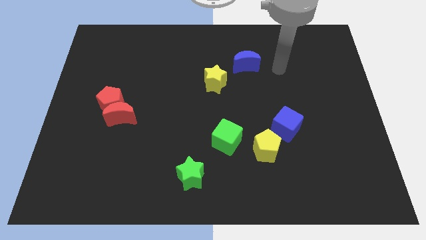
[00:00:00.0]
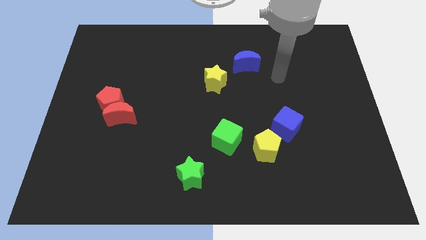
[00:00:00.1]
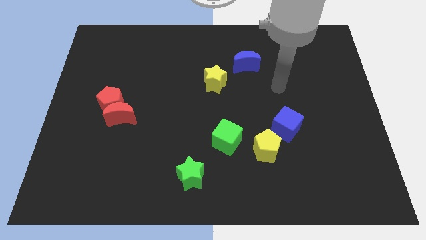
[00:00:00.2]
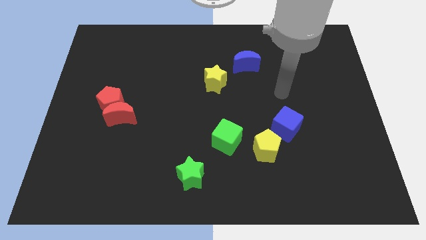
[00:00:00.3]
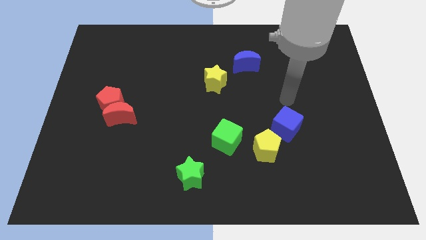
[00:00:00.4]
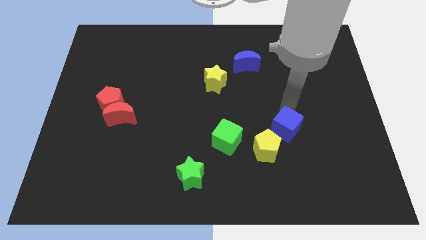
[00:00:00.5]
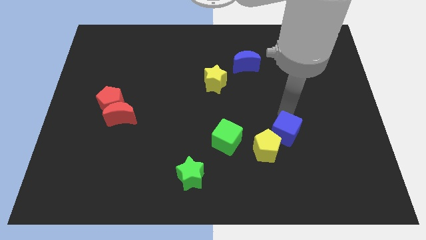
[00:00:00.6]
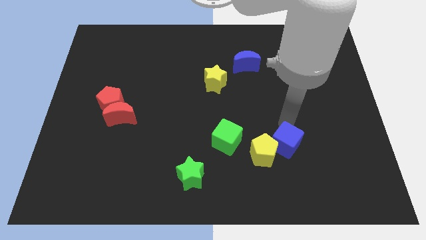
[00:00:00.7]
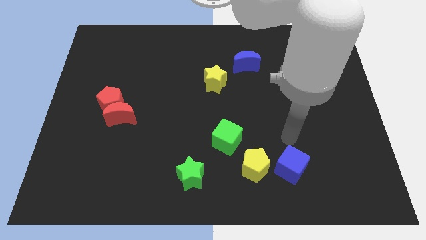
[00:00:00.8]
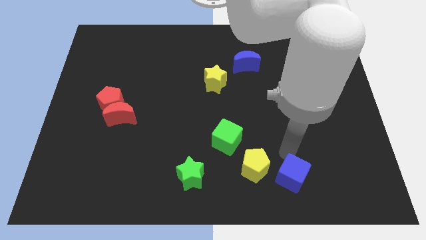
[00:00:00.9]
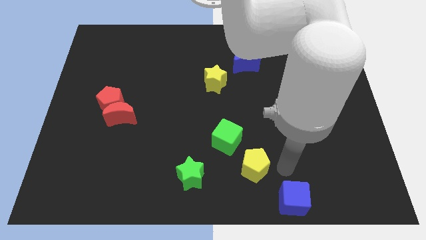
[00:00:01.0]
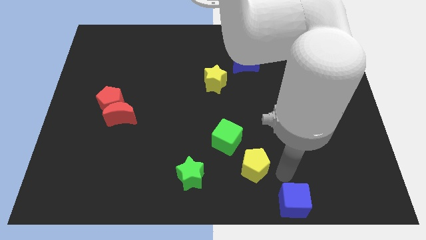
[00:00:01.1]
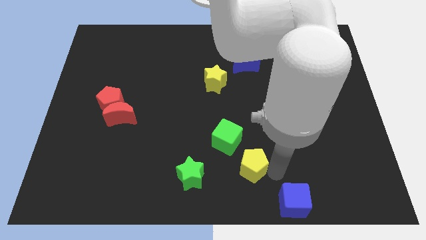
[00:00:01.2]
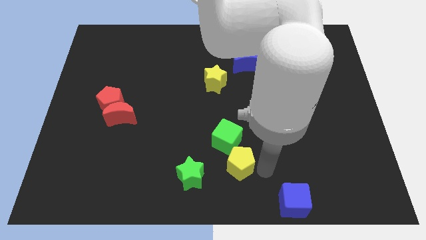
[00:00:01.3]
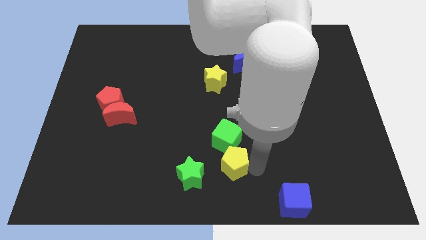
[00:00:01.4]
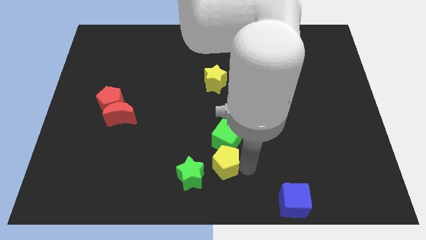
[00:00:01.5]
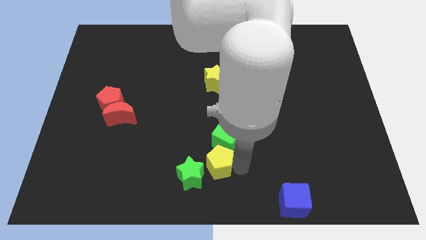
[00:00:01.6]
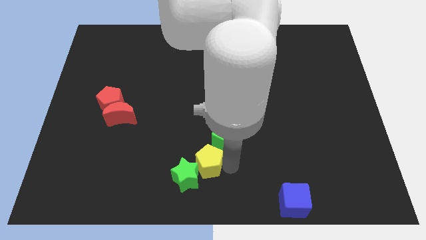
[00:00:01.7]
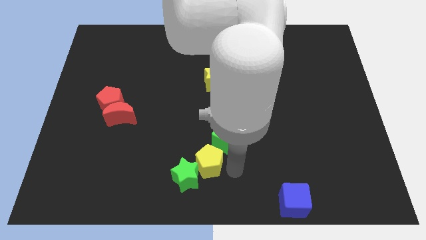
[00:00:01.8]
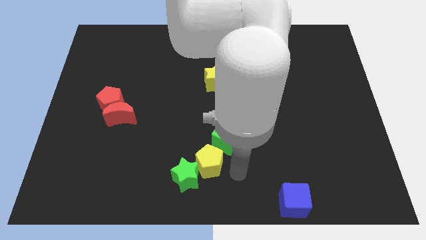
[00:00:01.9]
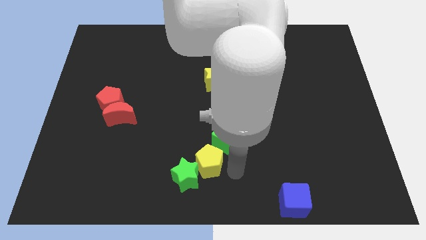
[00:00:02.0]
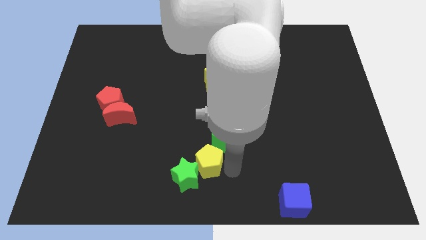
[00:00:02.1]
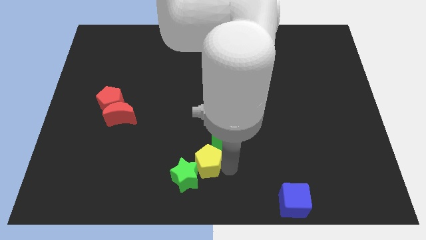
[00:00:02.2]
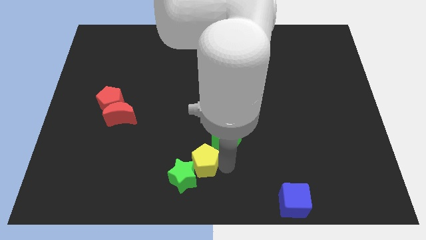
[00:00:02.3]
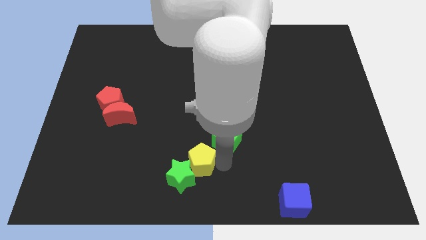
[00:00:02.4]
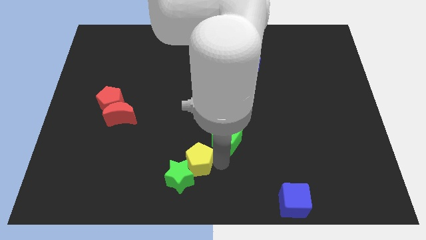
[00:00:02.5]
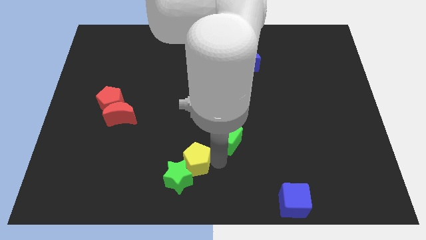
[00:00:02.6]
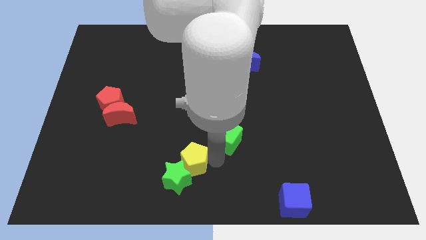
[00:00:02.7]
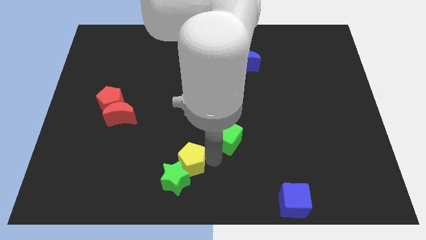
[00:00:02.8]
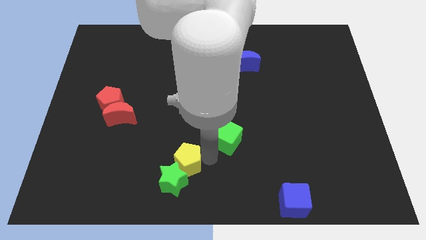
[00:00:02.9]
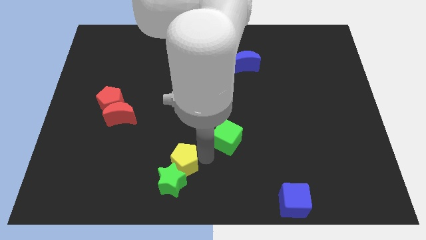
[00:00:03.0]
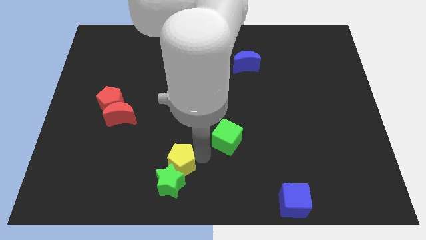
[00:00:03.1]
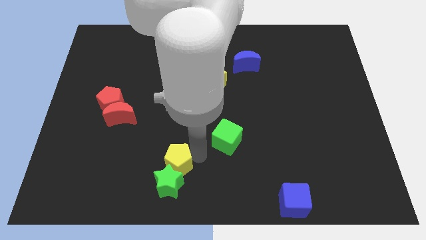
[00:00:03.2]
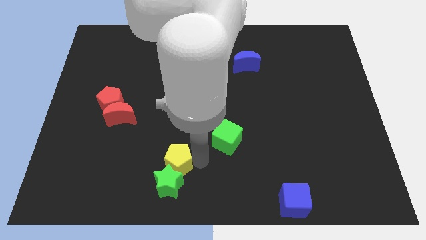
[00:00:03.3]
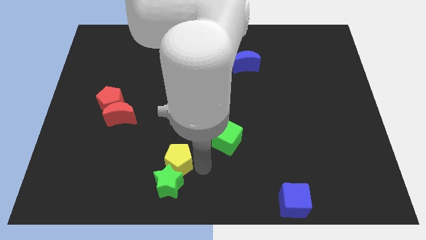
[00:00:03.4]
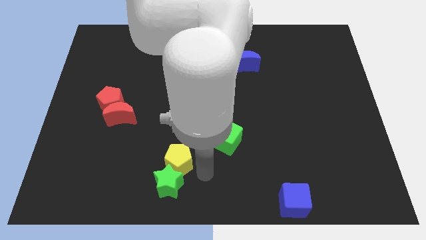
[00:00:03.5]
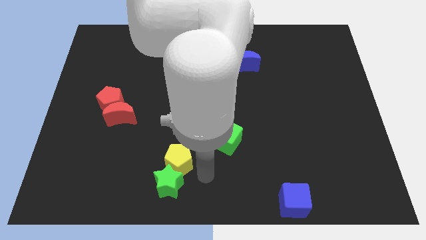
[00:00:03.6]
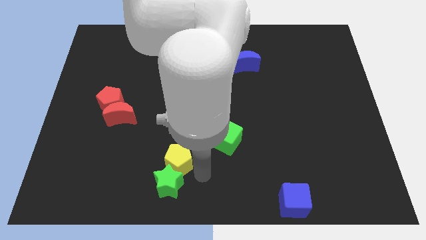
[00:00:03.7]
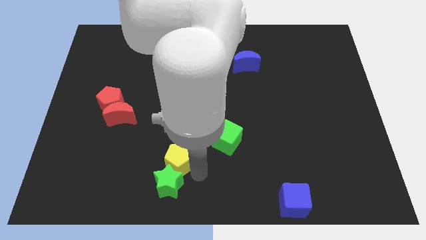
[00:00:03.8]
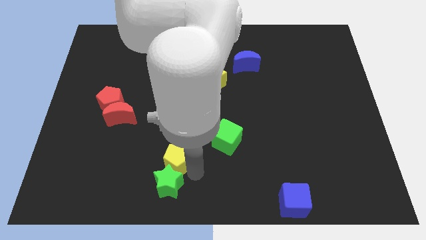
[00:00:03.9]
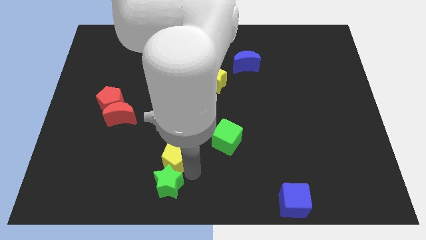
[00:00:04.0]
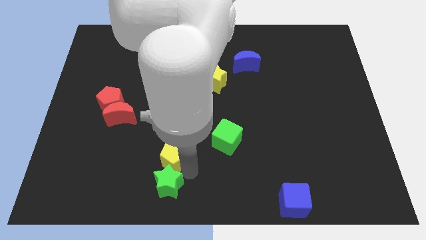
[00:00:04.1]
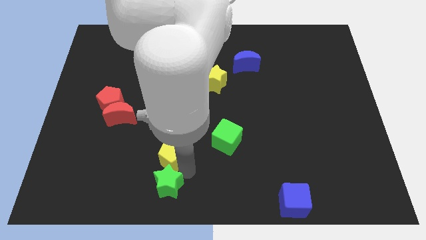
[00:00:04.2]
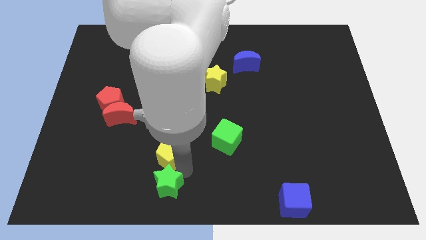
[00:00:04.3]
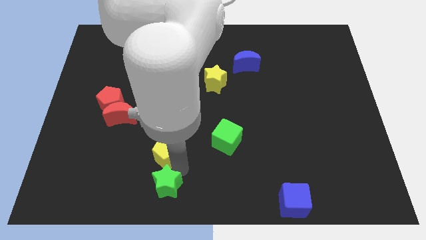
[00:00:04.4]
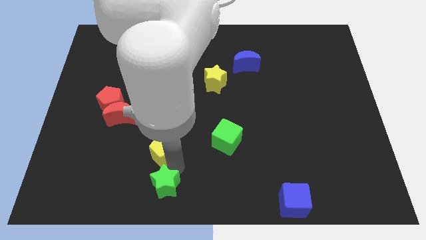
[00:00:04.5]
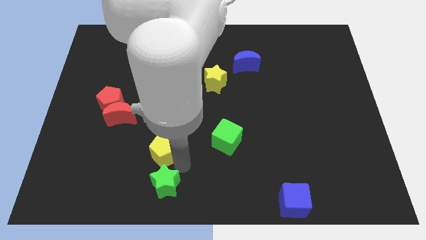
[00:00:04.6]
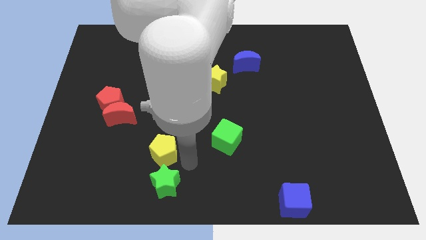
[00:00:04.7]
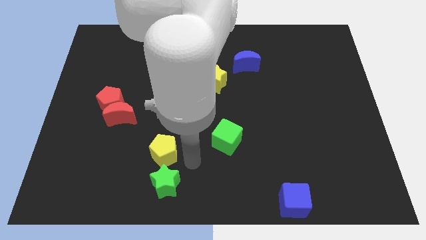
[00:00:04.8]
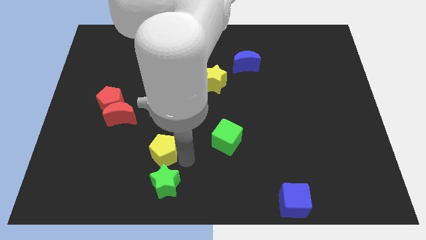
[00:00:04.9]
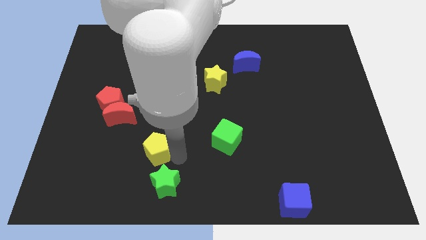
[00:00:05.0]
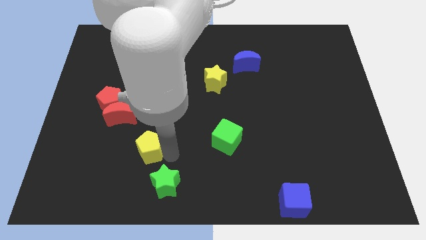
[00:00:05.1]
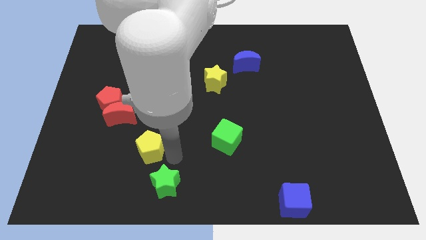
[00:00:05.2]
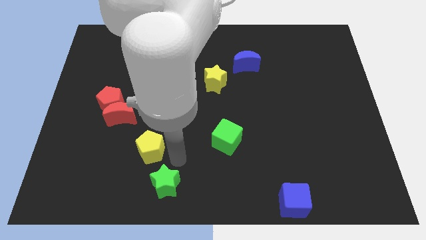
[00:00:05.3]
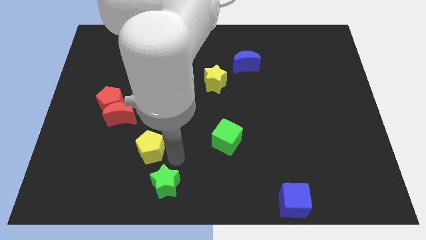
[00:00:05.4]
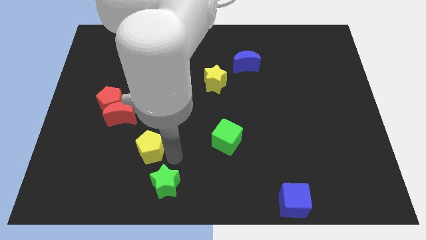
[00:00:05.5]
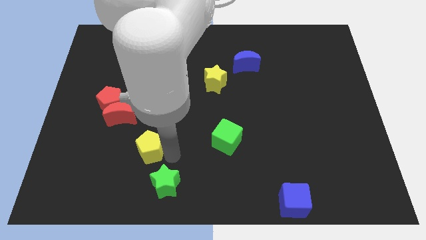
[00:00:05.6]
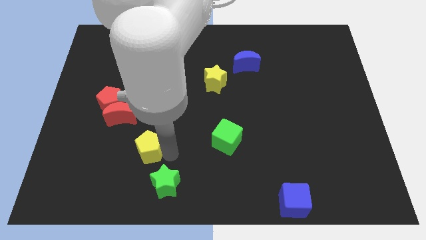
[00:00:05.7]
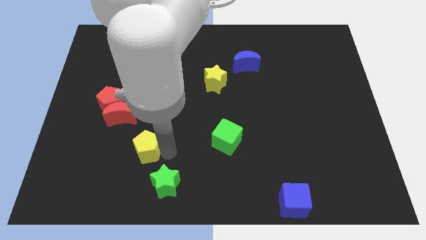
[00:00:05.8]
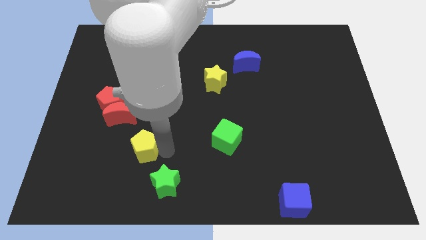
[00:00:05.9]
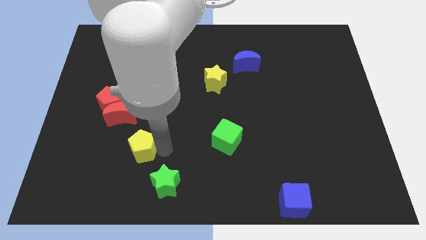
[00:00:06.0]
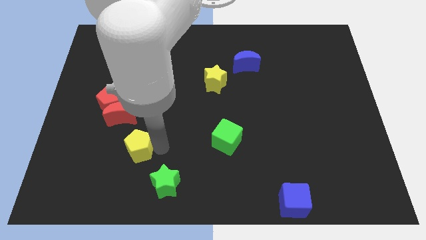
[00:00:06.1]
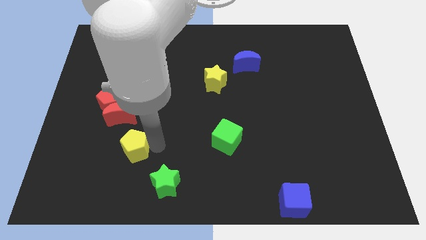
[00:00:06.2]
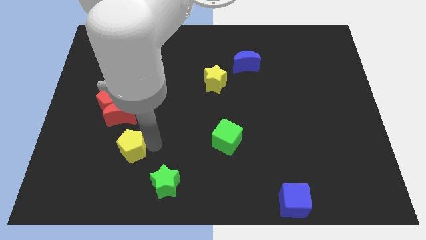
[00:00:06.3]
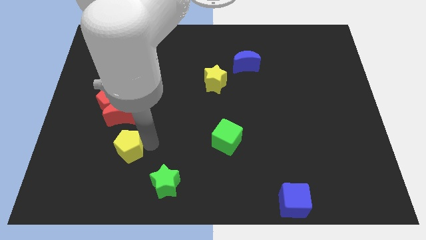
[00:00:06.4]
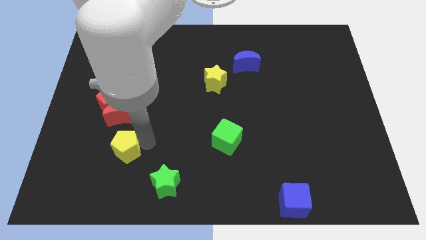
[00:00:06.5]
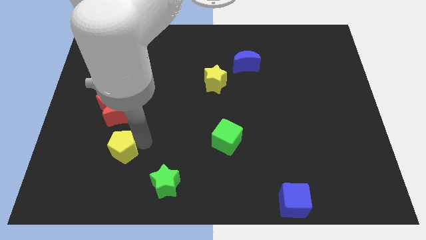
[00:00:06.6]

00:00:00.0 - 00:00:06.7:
put the yellow pentagon below the red pentagon

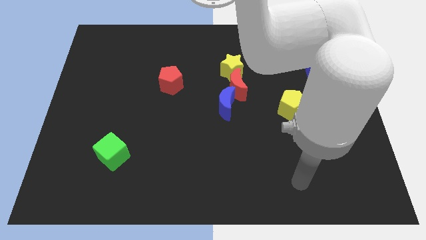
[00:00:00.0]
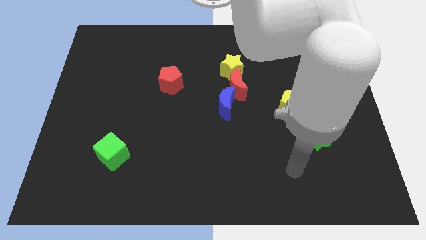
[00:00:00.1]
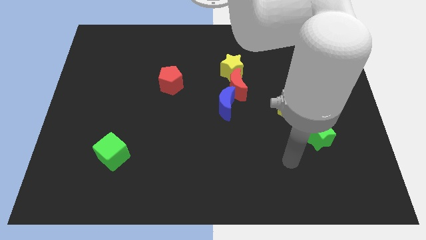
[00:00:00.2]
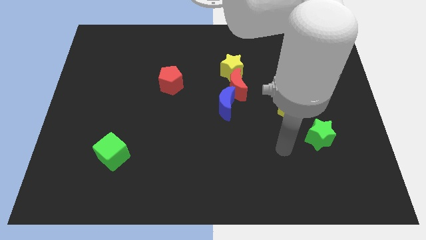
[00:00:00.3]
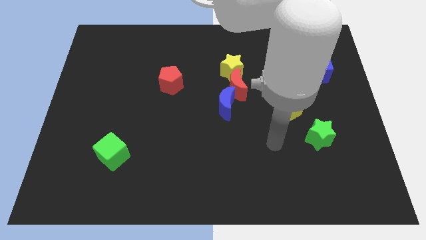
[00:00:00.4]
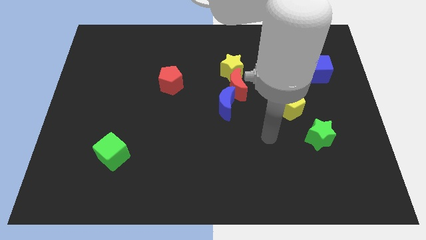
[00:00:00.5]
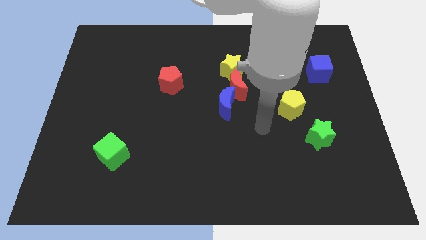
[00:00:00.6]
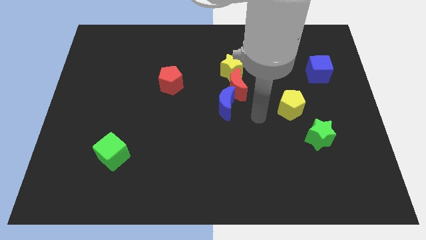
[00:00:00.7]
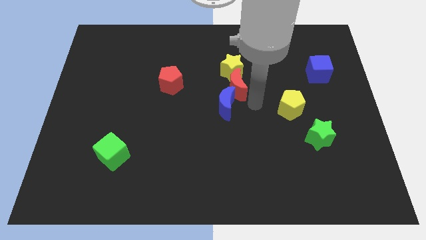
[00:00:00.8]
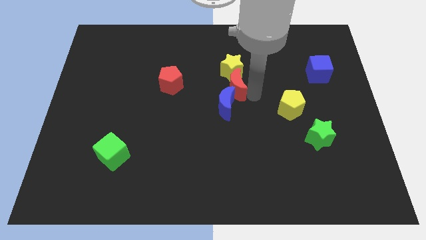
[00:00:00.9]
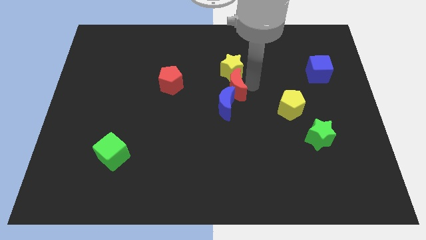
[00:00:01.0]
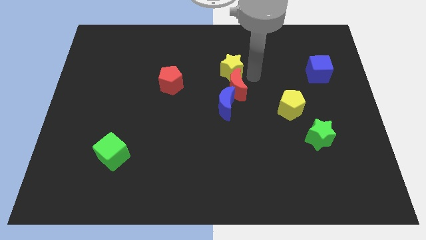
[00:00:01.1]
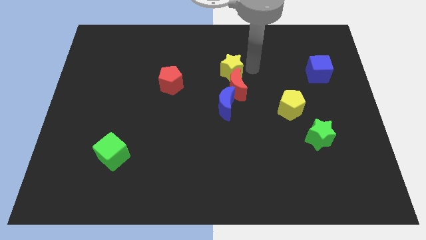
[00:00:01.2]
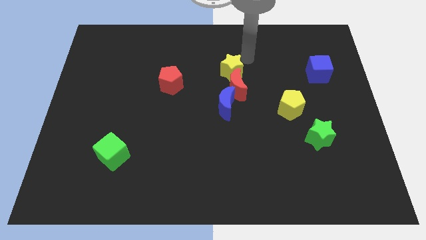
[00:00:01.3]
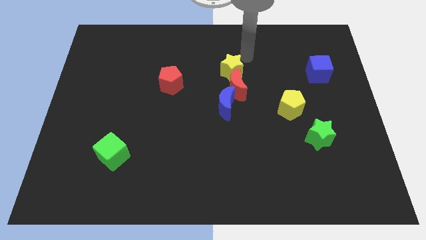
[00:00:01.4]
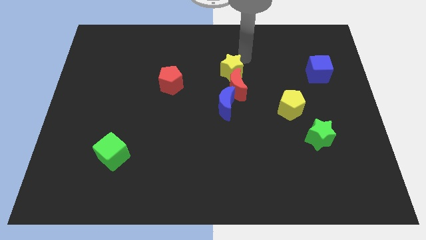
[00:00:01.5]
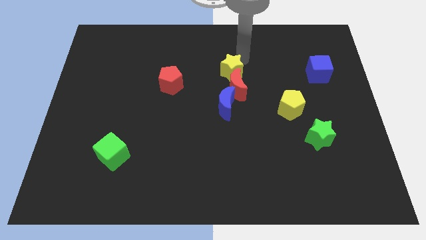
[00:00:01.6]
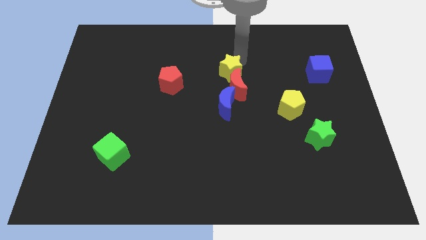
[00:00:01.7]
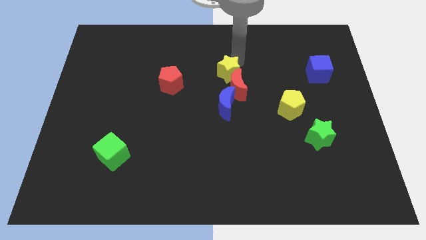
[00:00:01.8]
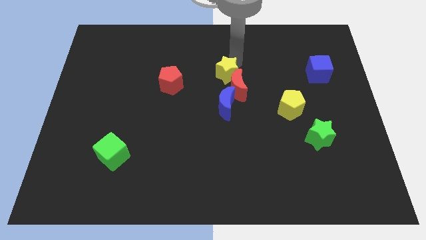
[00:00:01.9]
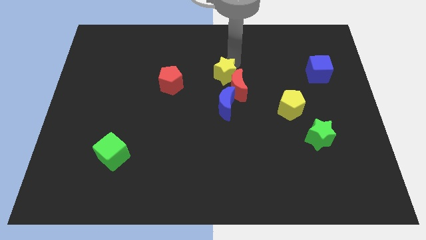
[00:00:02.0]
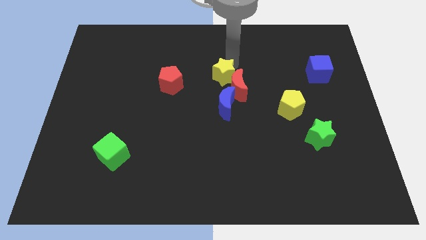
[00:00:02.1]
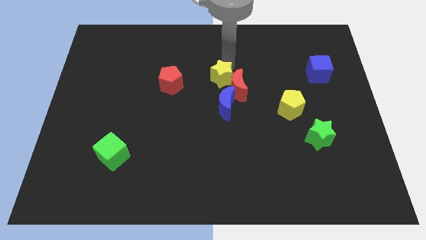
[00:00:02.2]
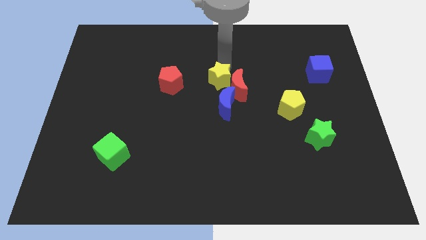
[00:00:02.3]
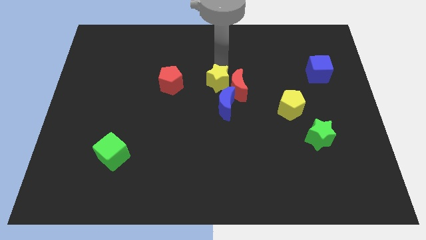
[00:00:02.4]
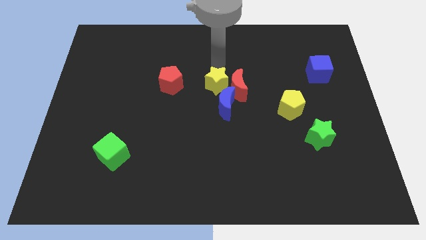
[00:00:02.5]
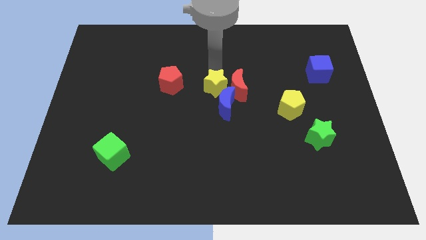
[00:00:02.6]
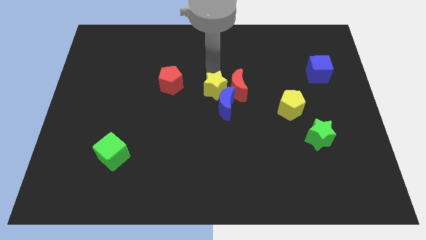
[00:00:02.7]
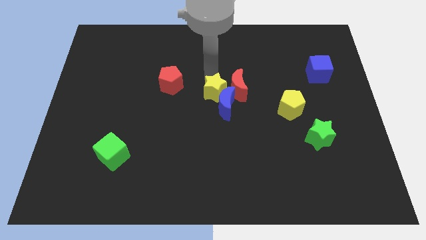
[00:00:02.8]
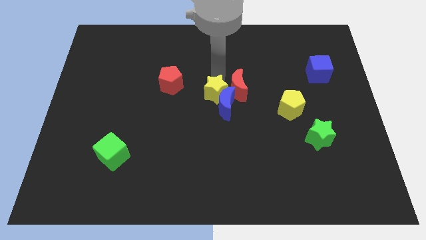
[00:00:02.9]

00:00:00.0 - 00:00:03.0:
slide the yellow star left of the blue moon
